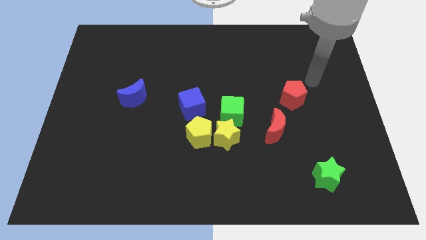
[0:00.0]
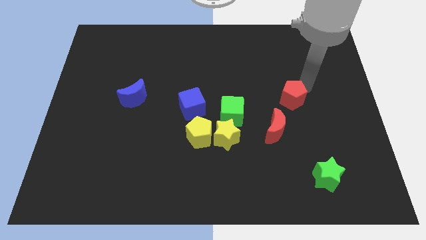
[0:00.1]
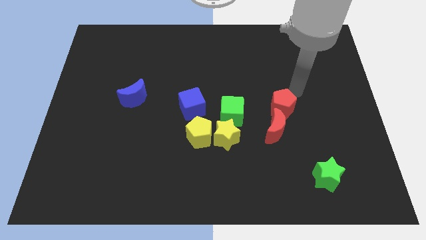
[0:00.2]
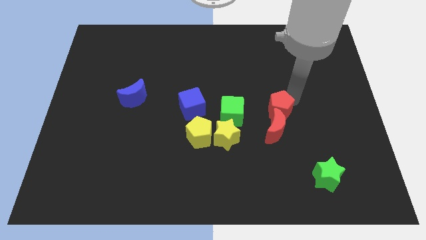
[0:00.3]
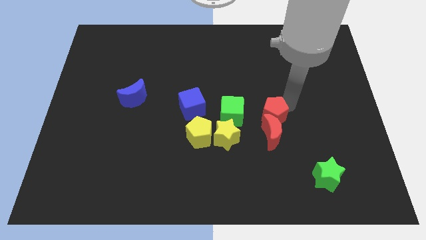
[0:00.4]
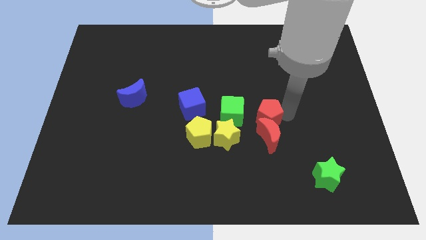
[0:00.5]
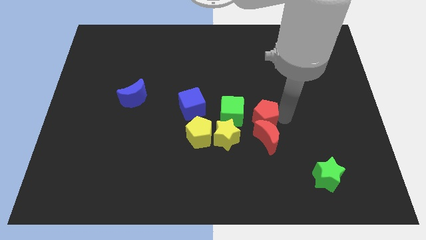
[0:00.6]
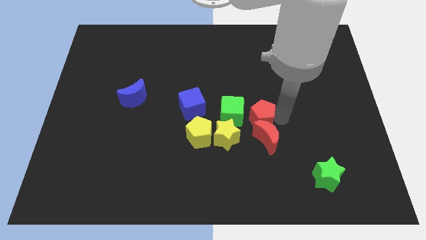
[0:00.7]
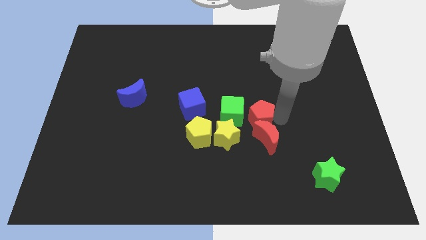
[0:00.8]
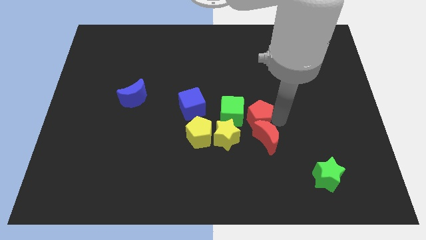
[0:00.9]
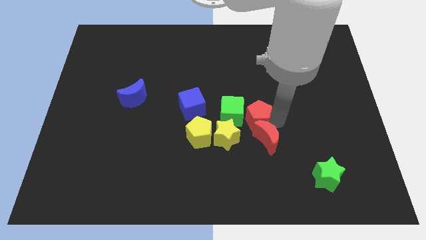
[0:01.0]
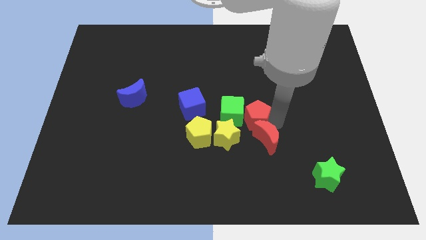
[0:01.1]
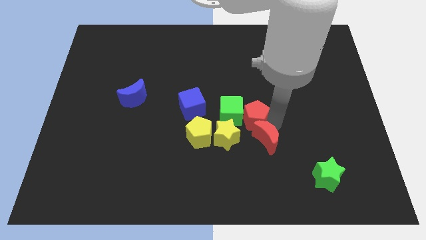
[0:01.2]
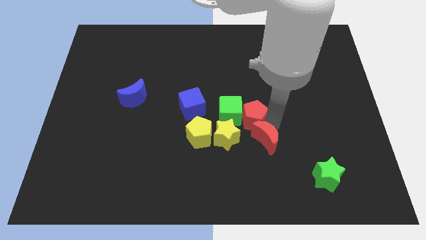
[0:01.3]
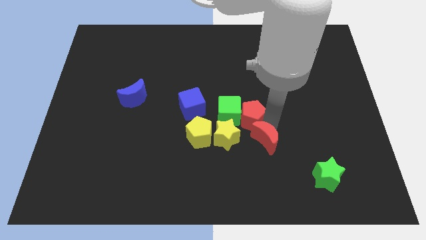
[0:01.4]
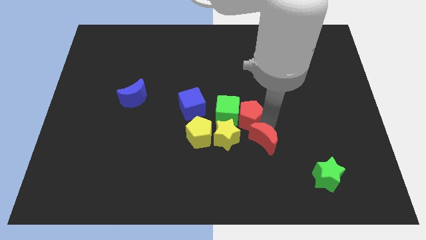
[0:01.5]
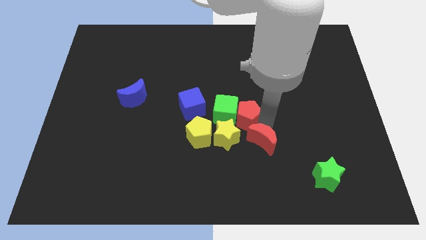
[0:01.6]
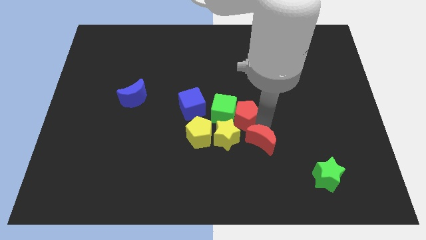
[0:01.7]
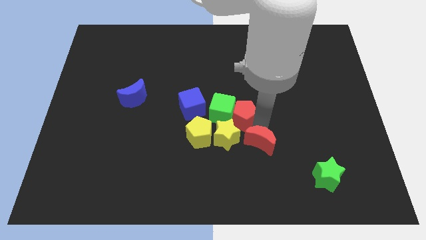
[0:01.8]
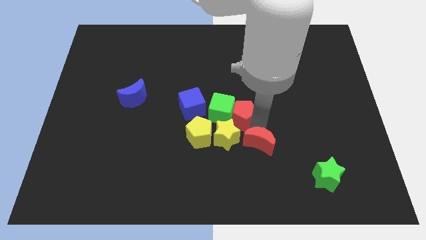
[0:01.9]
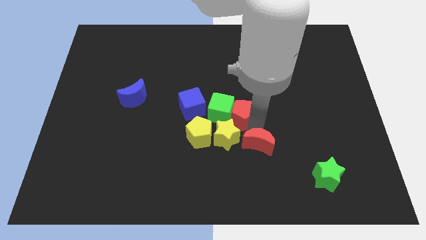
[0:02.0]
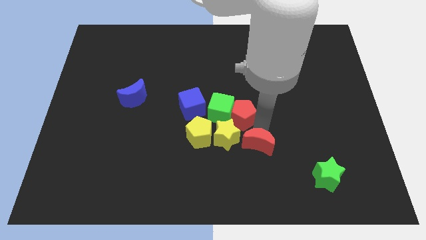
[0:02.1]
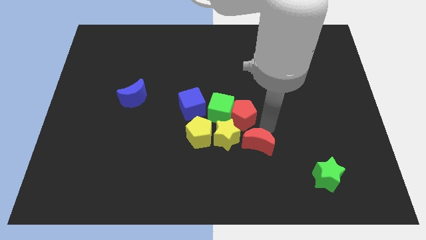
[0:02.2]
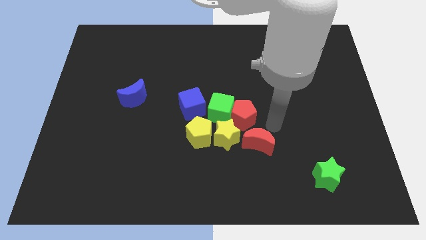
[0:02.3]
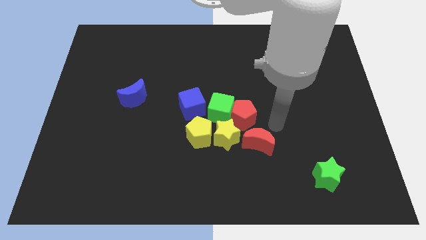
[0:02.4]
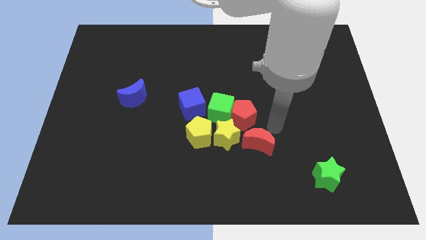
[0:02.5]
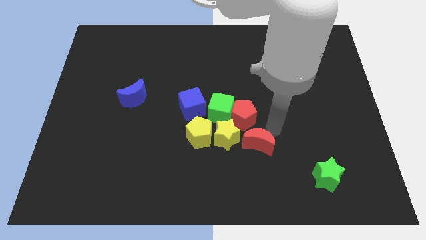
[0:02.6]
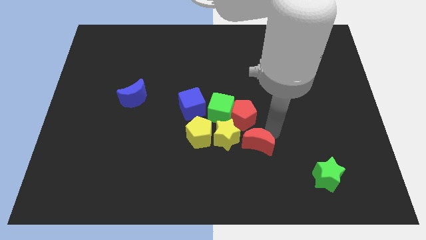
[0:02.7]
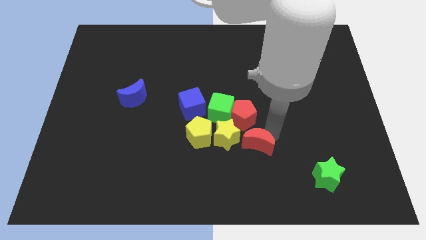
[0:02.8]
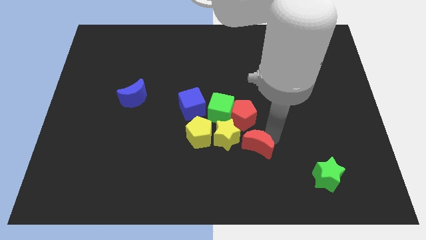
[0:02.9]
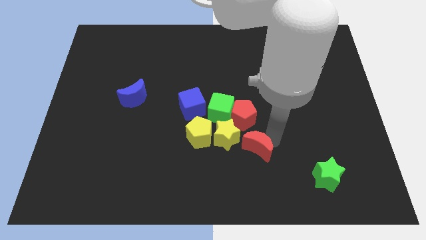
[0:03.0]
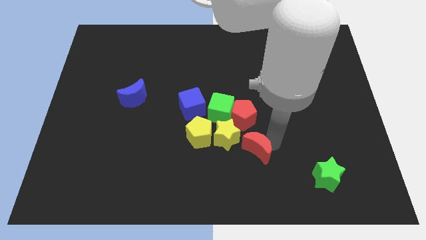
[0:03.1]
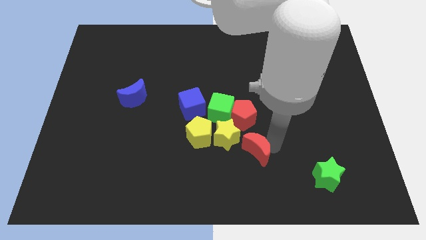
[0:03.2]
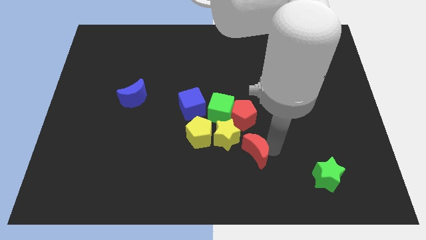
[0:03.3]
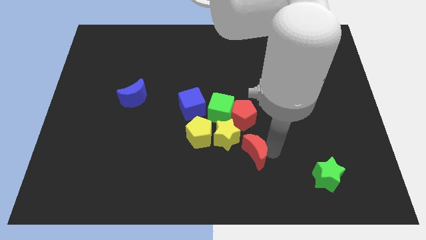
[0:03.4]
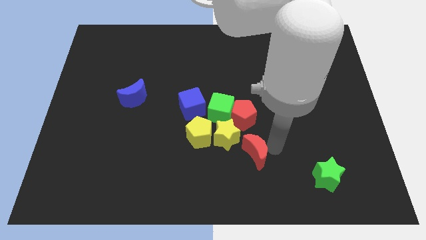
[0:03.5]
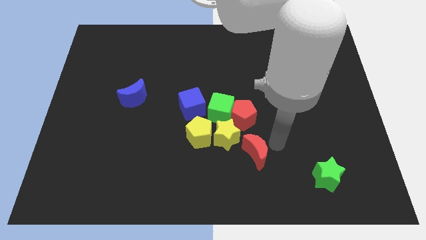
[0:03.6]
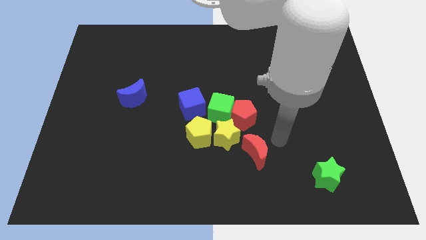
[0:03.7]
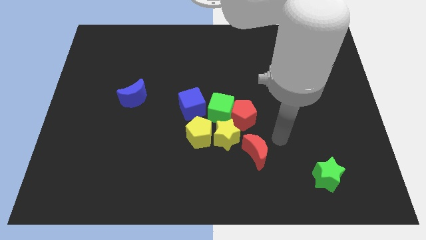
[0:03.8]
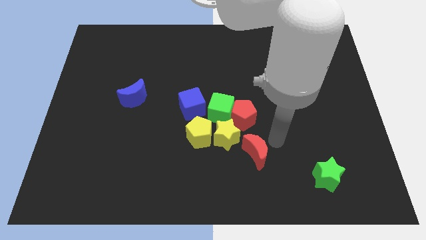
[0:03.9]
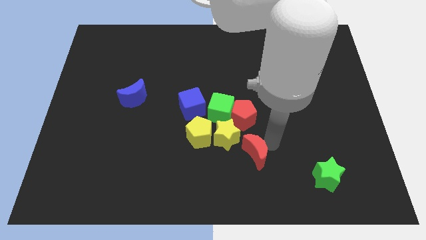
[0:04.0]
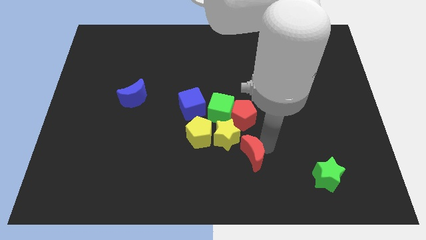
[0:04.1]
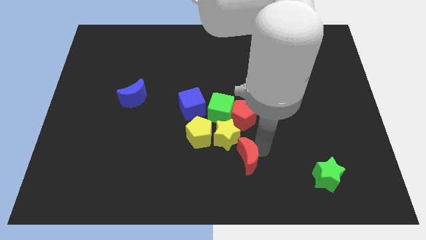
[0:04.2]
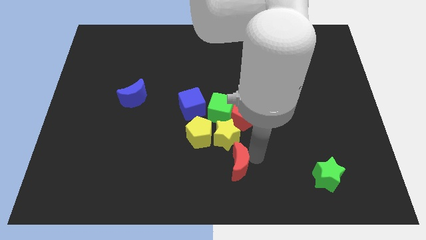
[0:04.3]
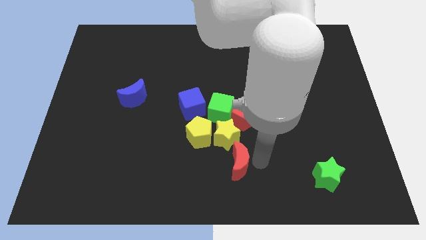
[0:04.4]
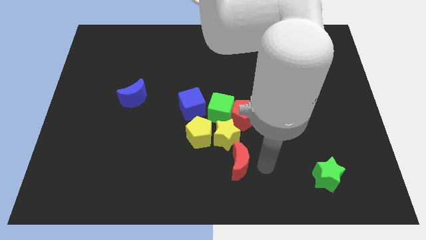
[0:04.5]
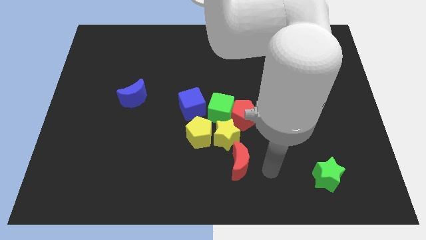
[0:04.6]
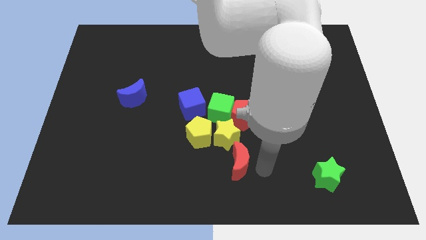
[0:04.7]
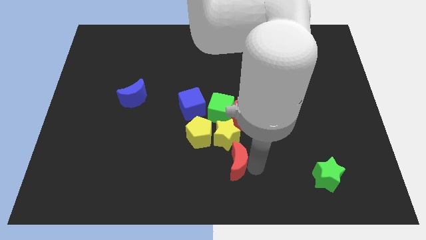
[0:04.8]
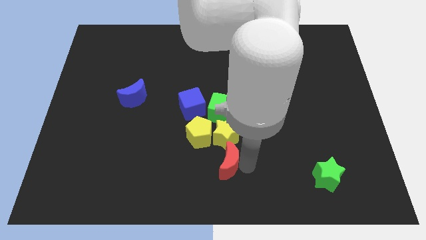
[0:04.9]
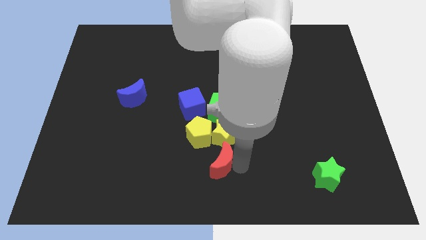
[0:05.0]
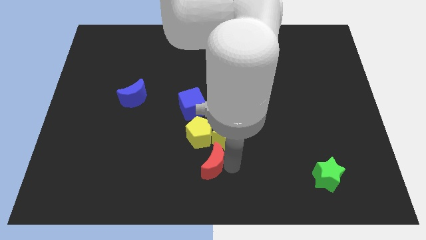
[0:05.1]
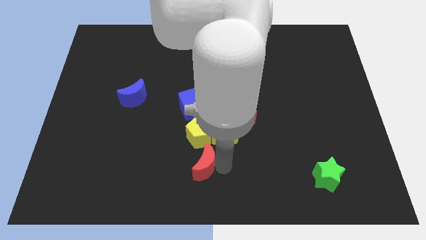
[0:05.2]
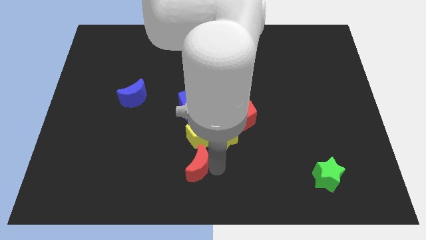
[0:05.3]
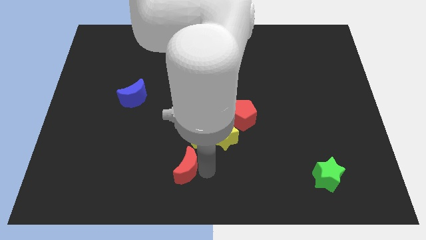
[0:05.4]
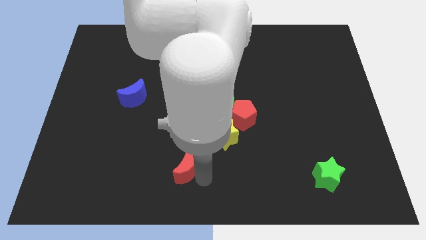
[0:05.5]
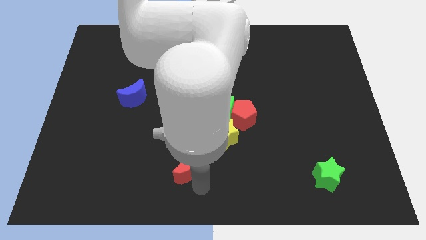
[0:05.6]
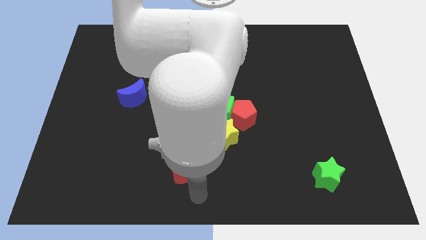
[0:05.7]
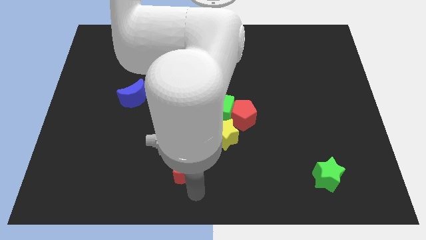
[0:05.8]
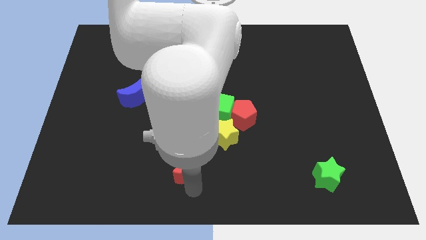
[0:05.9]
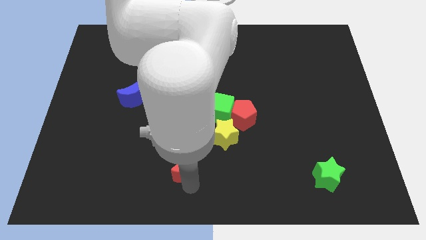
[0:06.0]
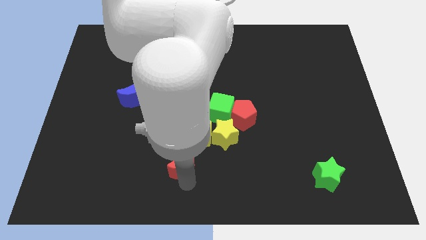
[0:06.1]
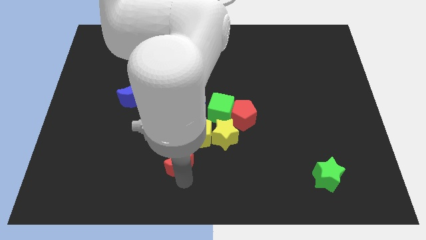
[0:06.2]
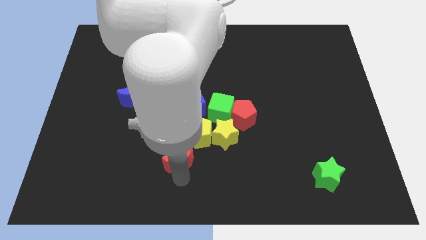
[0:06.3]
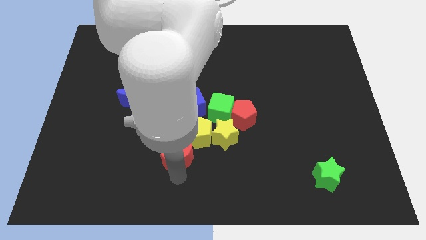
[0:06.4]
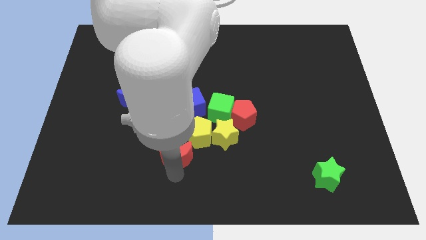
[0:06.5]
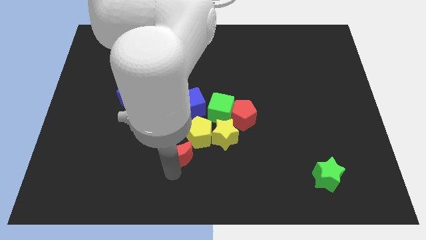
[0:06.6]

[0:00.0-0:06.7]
push the red moon left of the yellow star

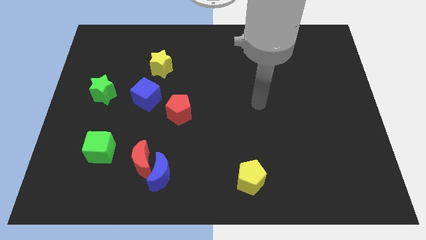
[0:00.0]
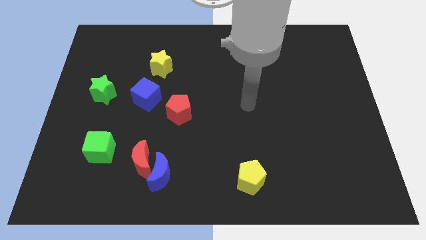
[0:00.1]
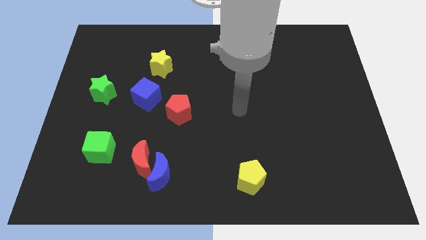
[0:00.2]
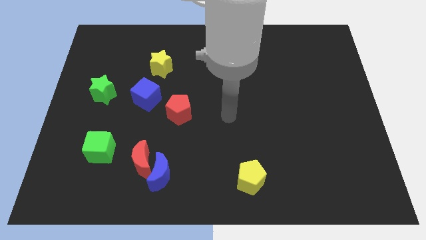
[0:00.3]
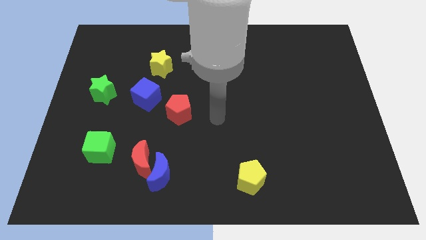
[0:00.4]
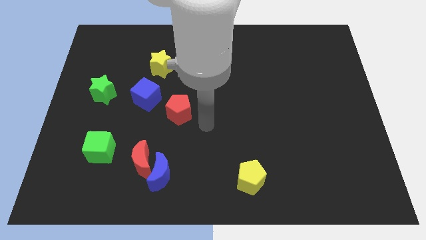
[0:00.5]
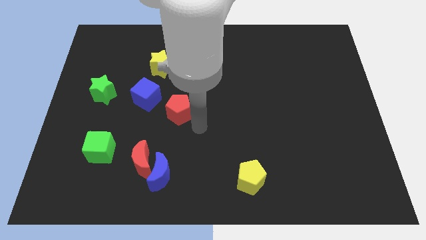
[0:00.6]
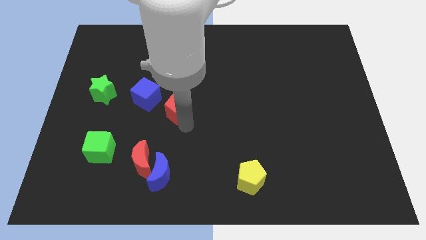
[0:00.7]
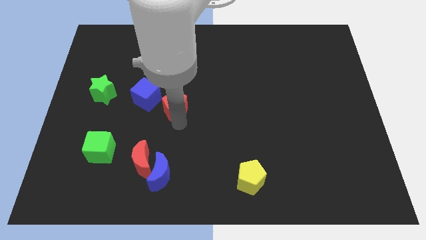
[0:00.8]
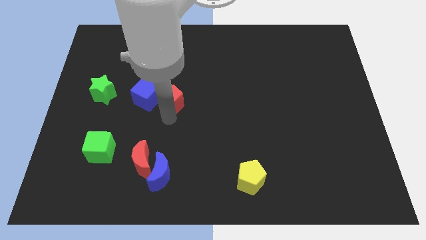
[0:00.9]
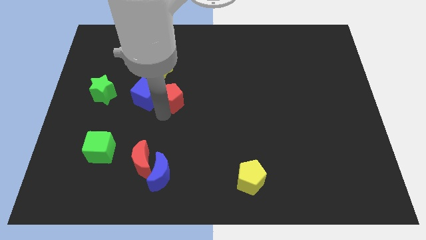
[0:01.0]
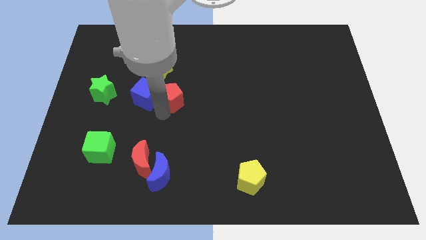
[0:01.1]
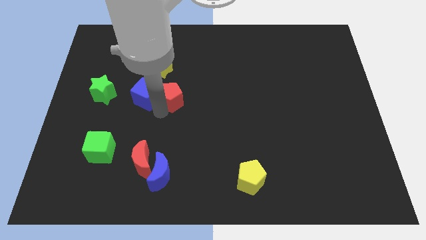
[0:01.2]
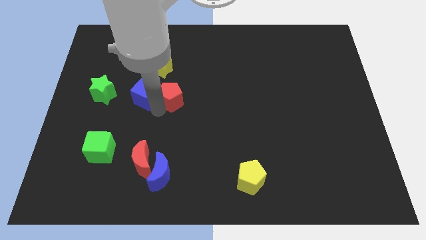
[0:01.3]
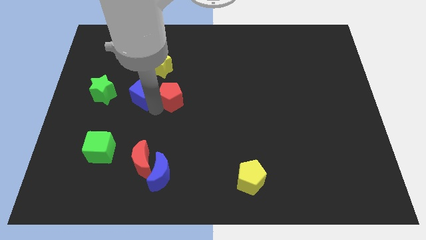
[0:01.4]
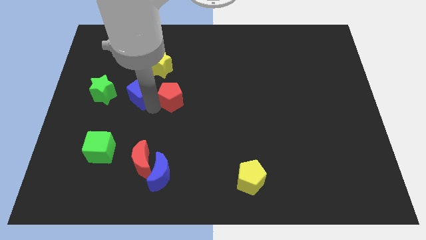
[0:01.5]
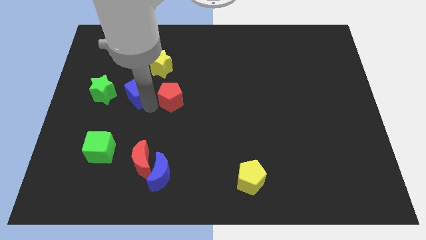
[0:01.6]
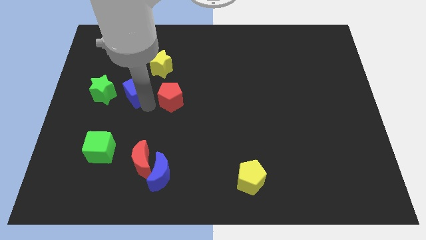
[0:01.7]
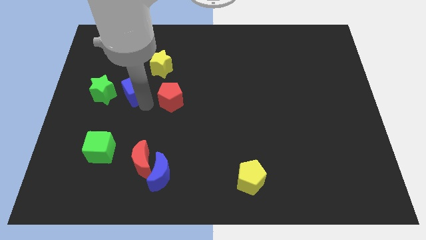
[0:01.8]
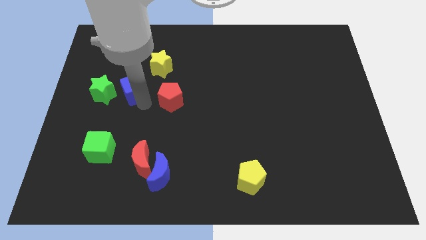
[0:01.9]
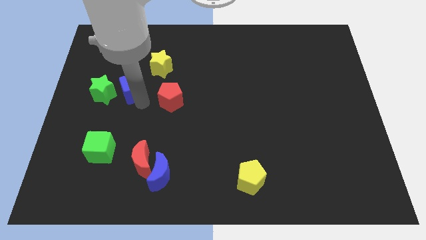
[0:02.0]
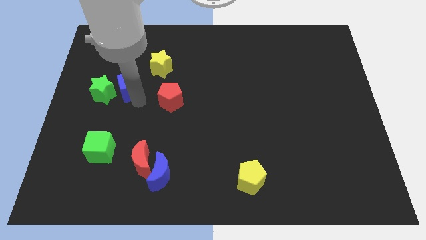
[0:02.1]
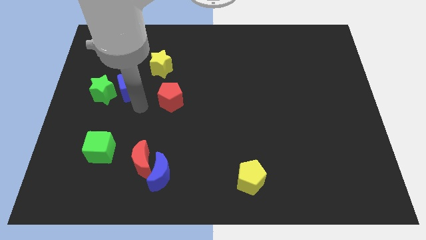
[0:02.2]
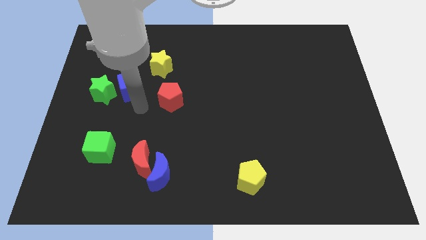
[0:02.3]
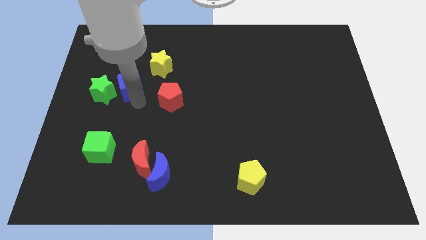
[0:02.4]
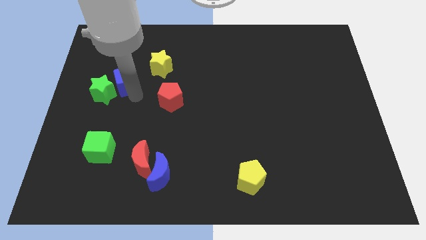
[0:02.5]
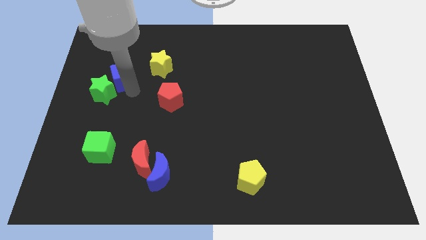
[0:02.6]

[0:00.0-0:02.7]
move the blue cube left of the yellow star
